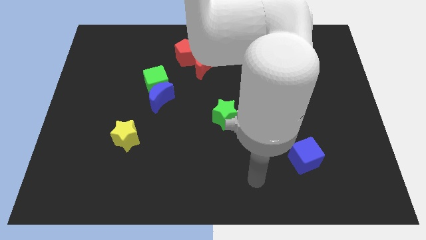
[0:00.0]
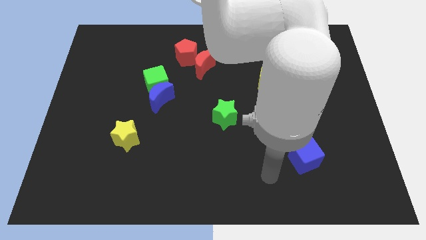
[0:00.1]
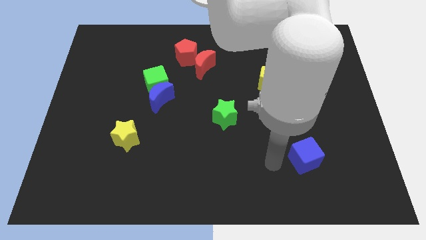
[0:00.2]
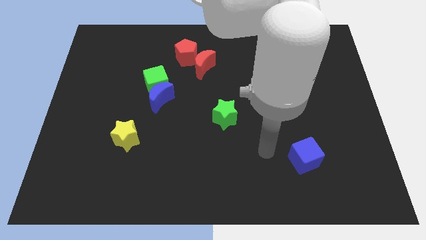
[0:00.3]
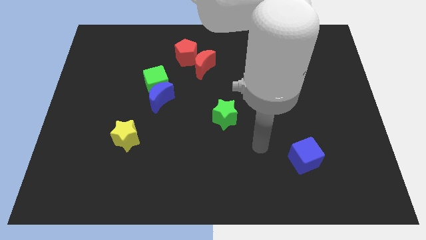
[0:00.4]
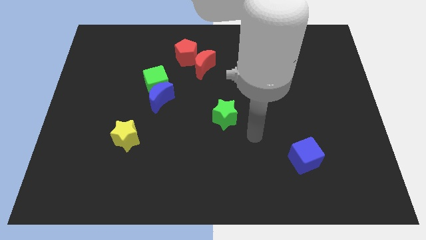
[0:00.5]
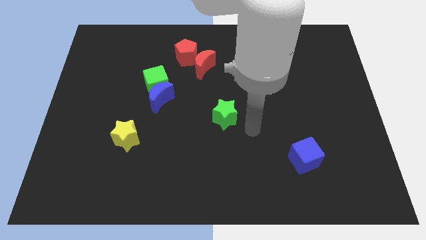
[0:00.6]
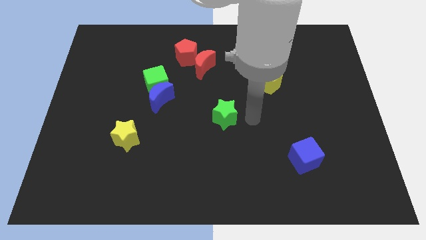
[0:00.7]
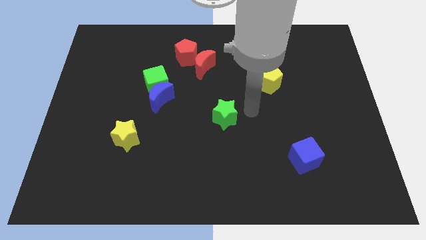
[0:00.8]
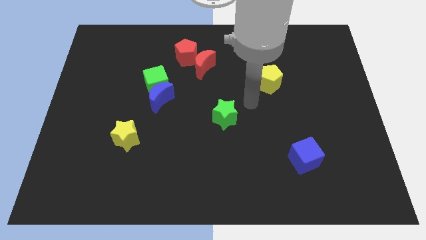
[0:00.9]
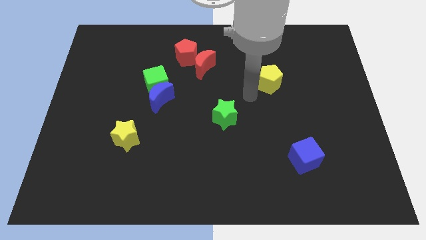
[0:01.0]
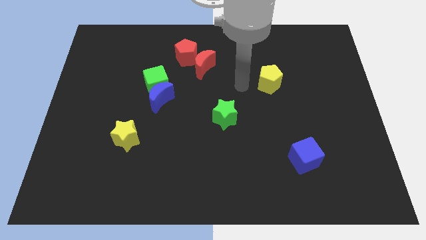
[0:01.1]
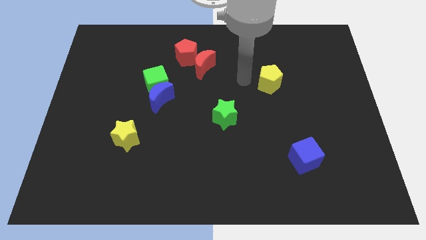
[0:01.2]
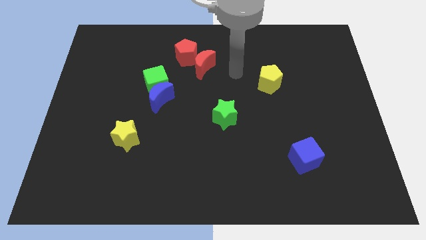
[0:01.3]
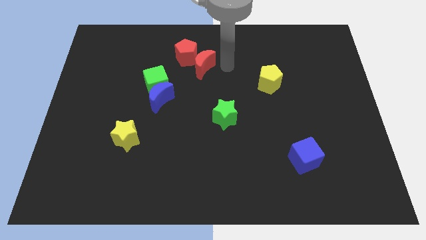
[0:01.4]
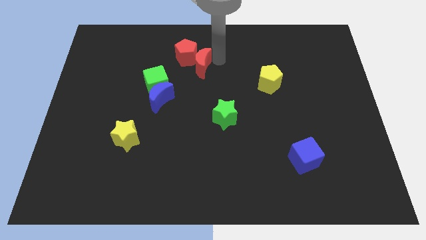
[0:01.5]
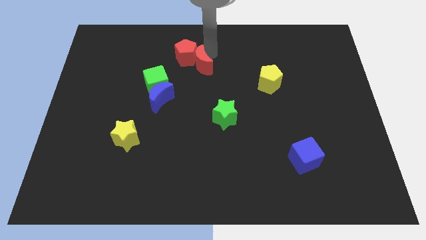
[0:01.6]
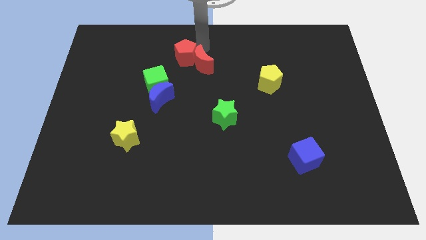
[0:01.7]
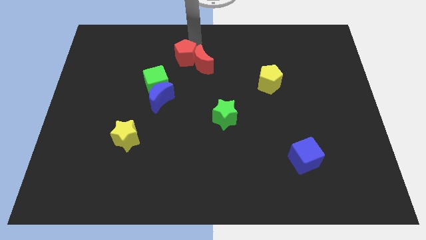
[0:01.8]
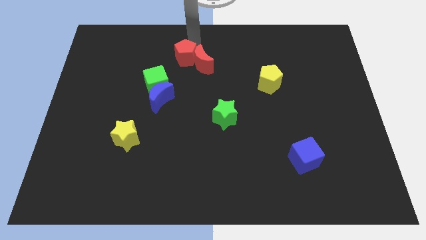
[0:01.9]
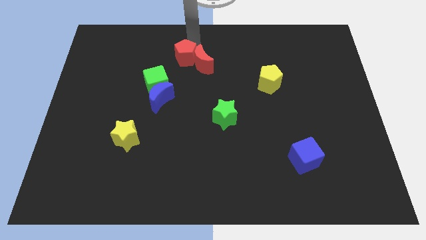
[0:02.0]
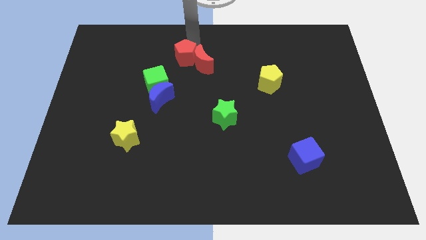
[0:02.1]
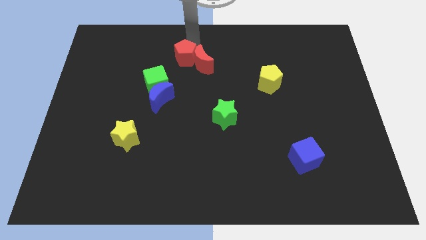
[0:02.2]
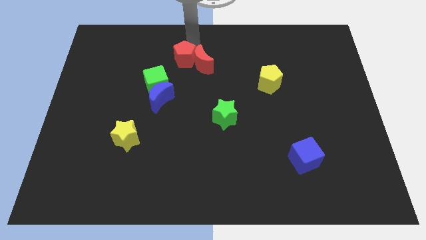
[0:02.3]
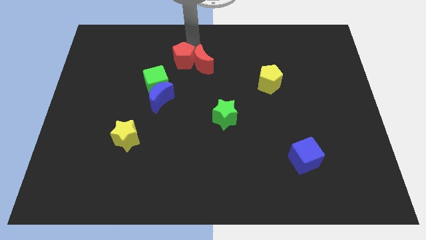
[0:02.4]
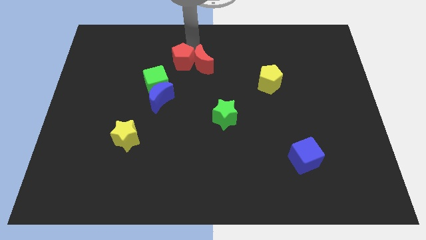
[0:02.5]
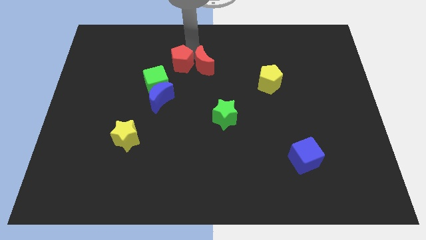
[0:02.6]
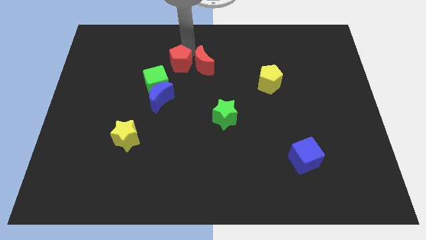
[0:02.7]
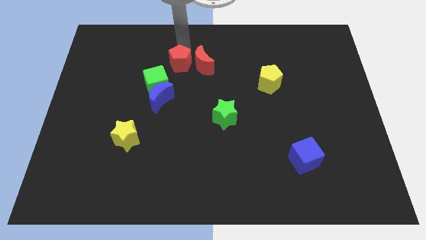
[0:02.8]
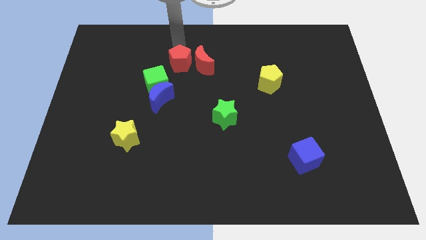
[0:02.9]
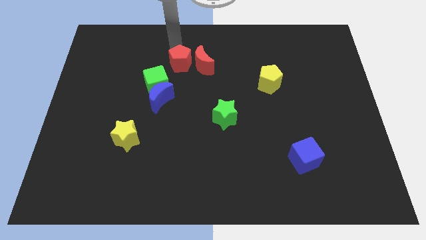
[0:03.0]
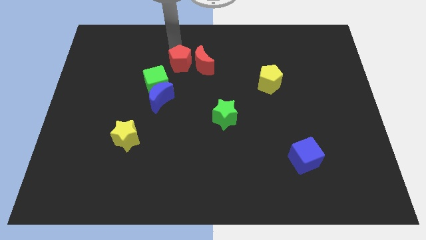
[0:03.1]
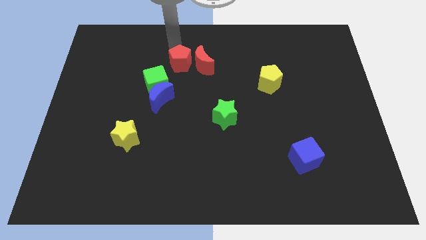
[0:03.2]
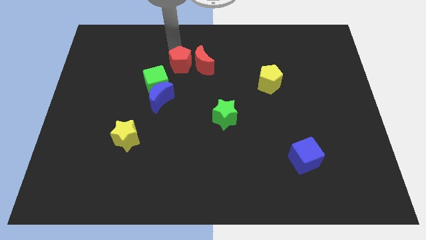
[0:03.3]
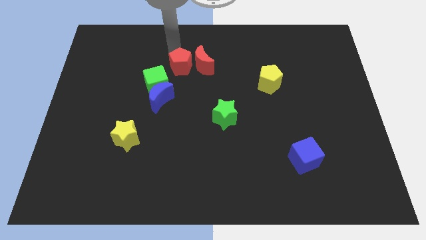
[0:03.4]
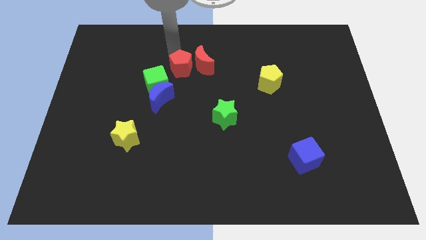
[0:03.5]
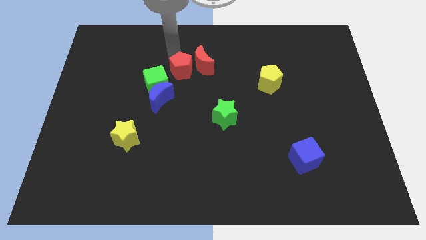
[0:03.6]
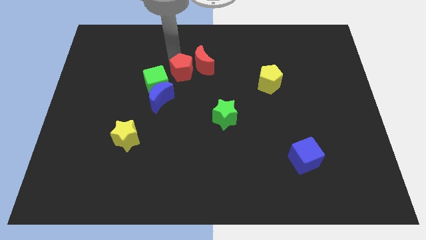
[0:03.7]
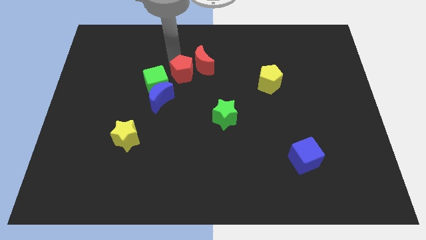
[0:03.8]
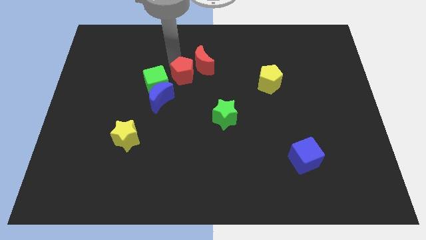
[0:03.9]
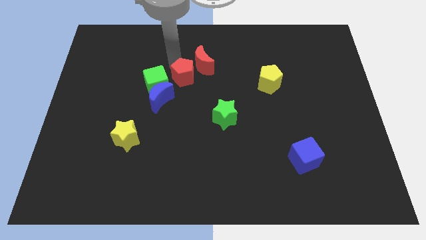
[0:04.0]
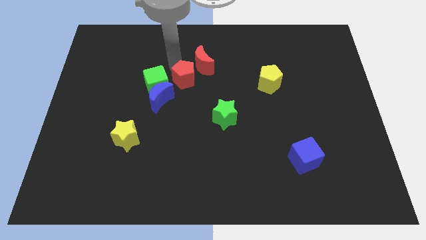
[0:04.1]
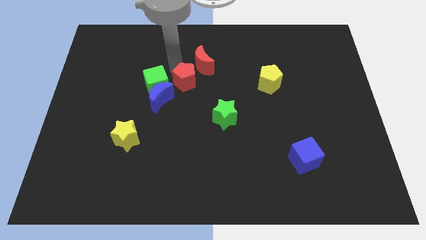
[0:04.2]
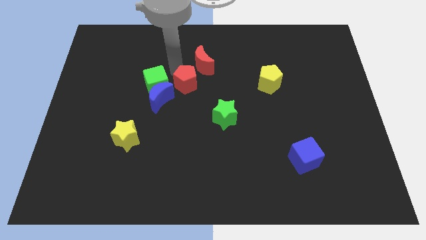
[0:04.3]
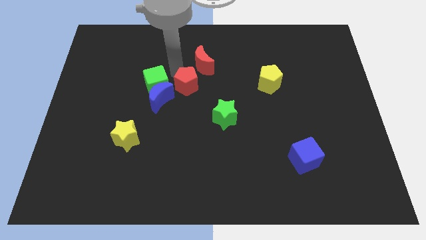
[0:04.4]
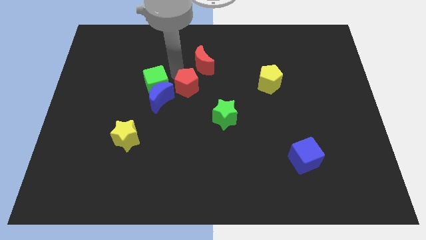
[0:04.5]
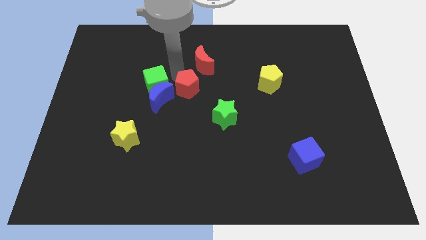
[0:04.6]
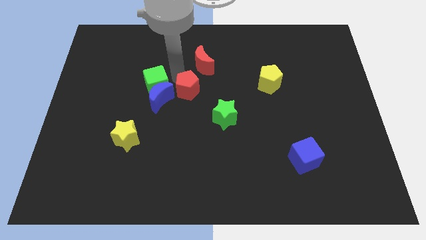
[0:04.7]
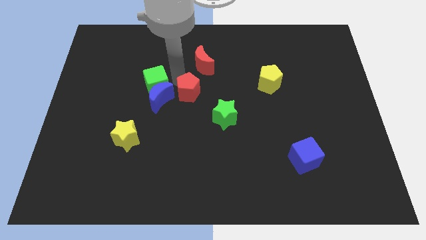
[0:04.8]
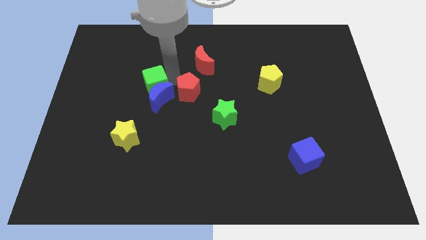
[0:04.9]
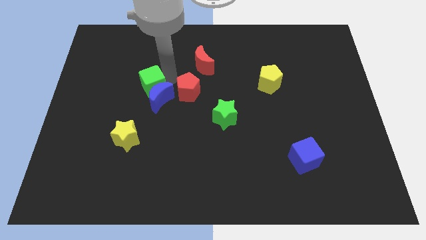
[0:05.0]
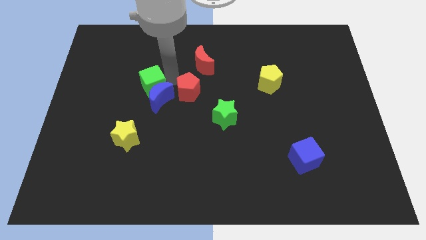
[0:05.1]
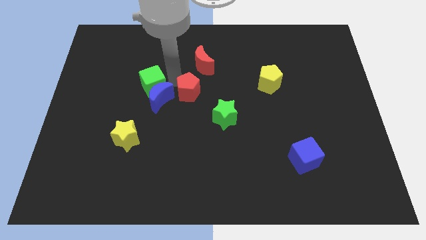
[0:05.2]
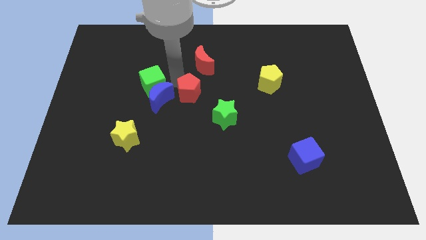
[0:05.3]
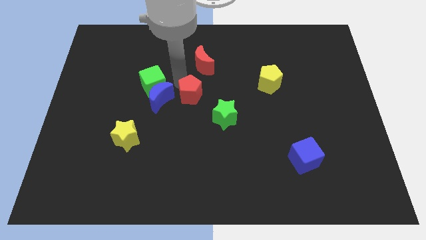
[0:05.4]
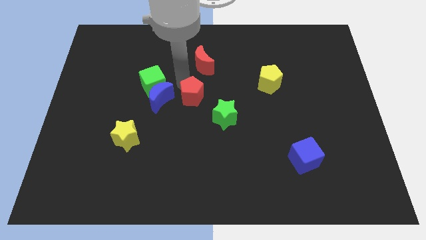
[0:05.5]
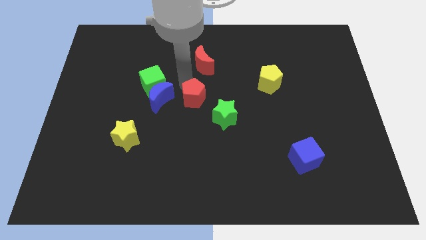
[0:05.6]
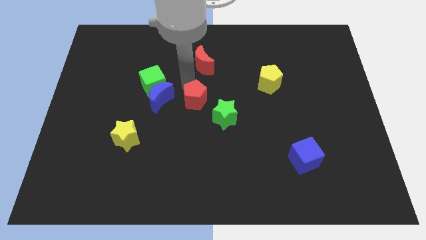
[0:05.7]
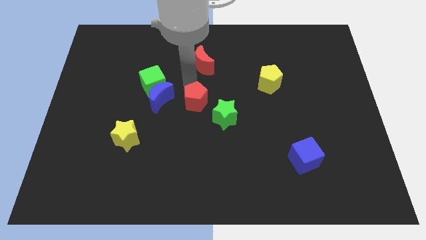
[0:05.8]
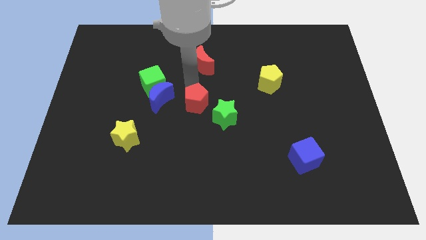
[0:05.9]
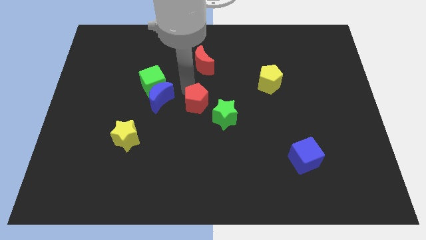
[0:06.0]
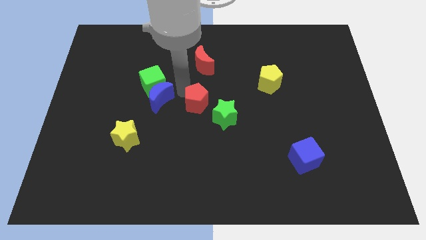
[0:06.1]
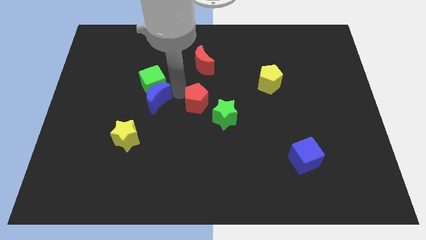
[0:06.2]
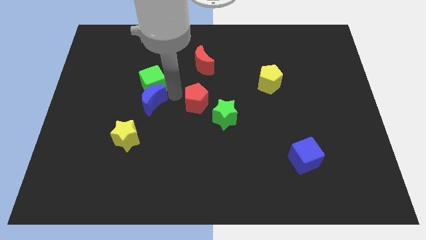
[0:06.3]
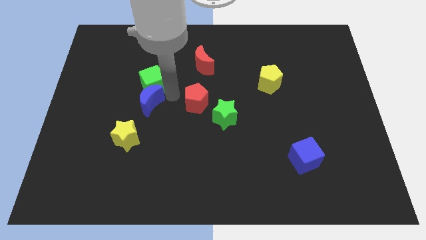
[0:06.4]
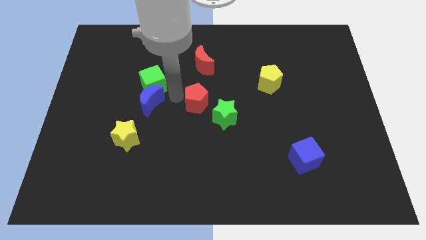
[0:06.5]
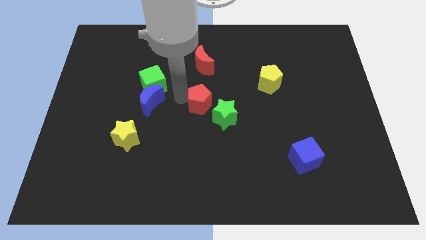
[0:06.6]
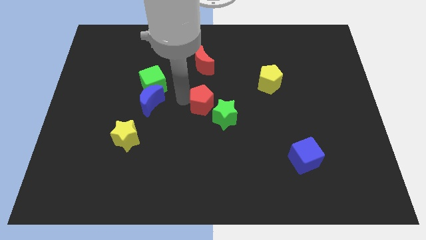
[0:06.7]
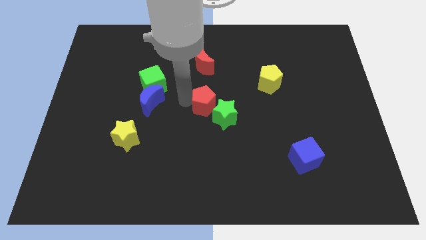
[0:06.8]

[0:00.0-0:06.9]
move the red pentagon to the green star
